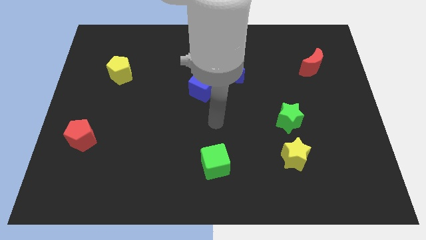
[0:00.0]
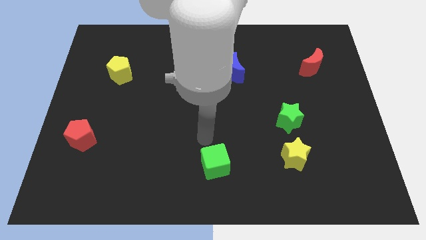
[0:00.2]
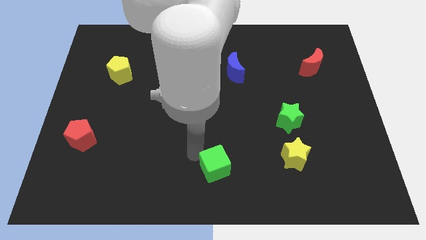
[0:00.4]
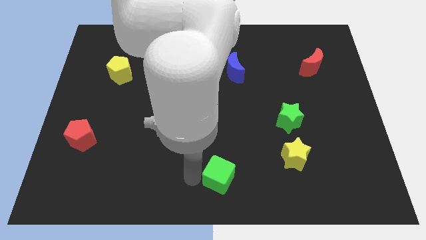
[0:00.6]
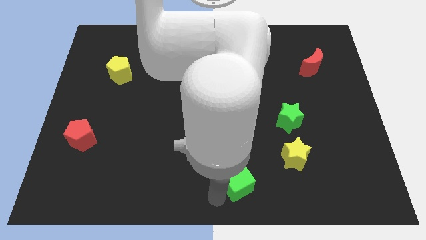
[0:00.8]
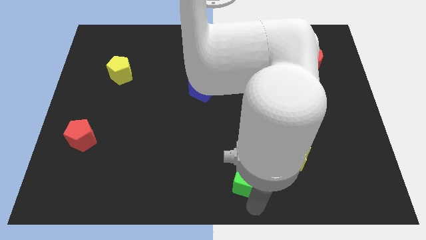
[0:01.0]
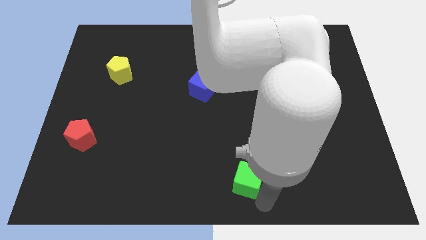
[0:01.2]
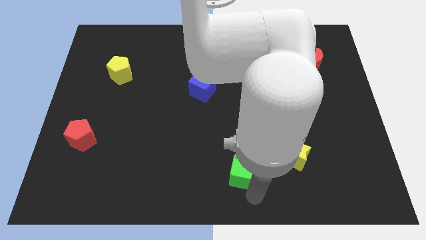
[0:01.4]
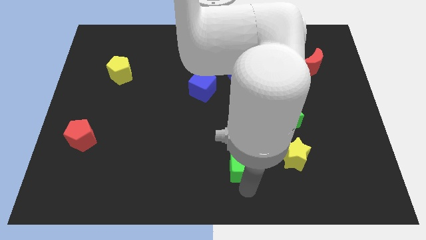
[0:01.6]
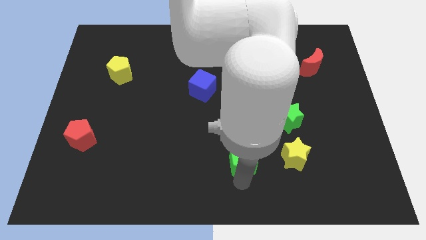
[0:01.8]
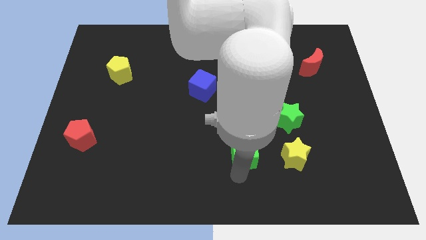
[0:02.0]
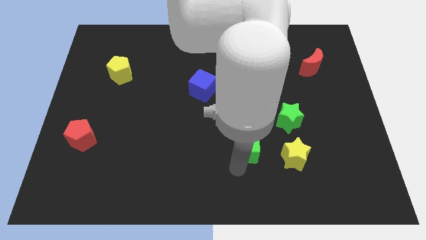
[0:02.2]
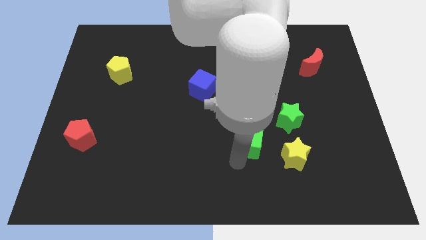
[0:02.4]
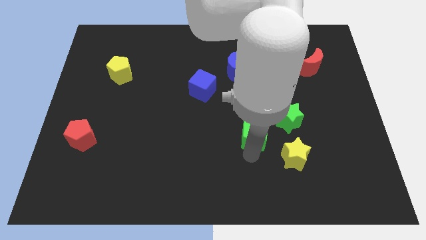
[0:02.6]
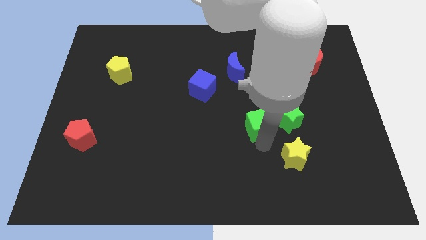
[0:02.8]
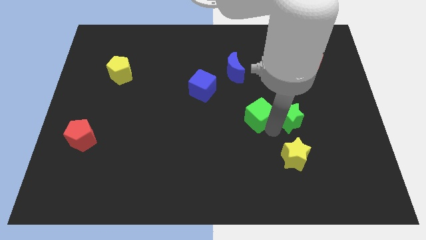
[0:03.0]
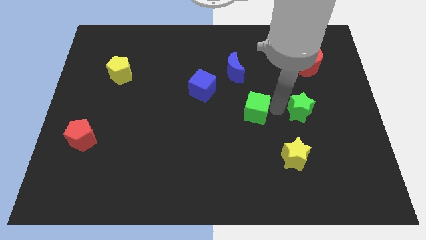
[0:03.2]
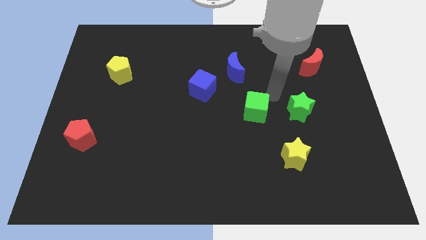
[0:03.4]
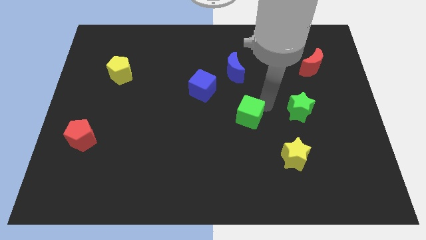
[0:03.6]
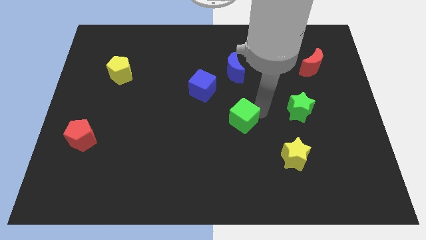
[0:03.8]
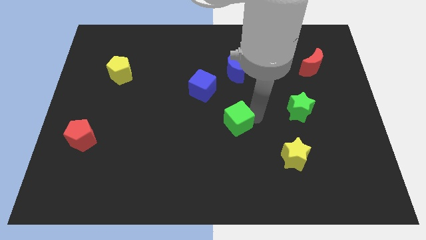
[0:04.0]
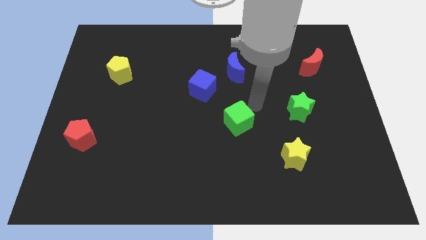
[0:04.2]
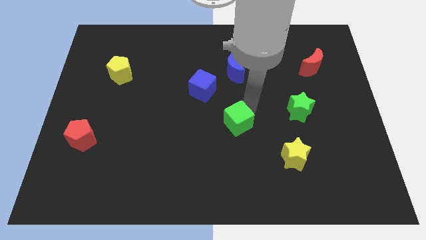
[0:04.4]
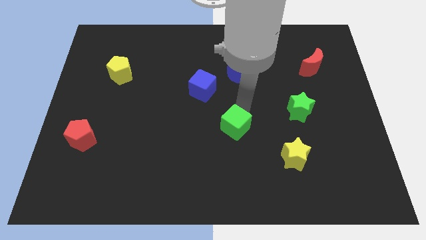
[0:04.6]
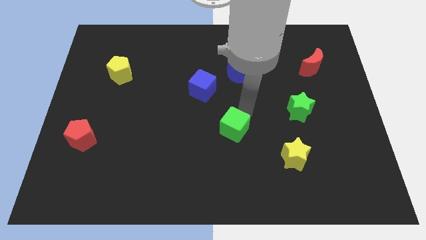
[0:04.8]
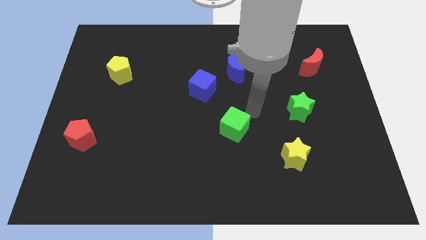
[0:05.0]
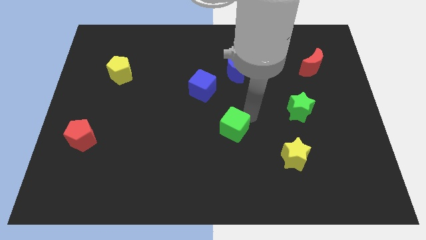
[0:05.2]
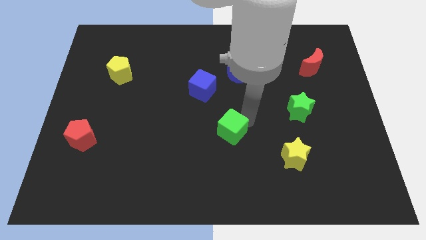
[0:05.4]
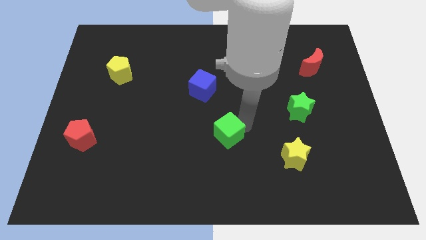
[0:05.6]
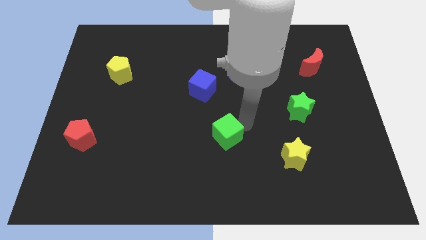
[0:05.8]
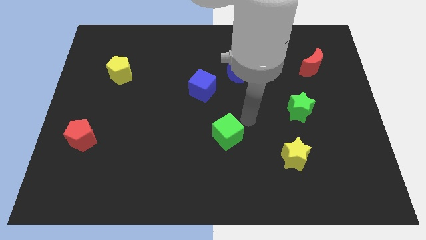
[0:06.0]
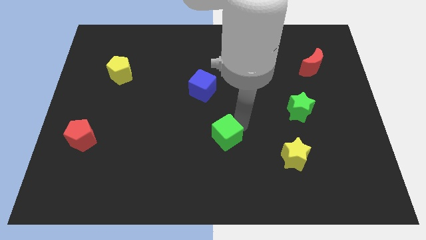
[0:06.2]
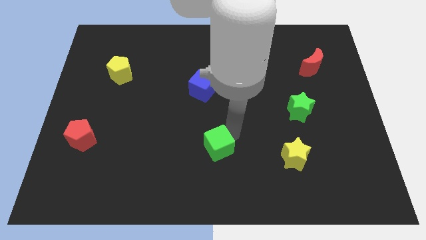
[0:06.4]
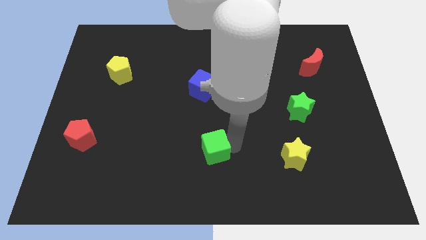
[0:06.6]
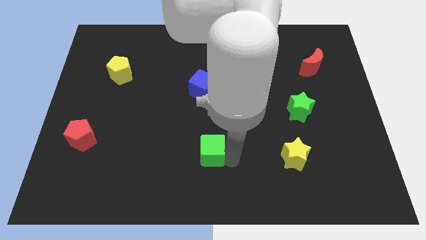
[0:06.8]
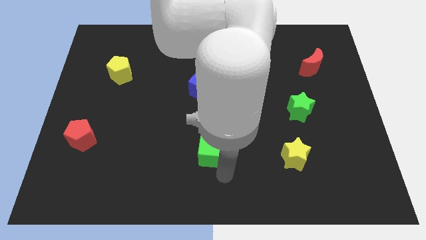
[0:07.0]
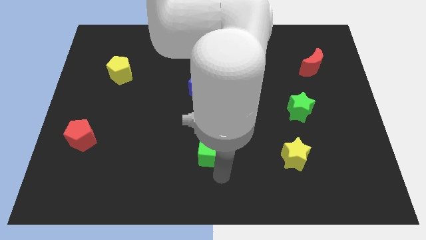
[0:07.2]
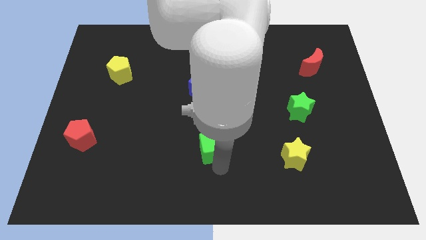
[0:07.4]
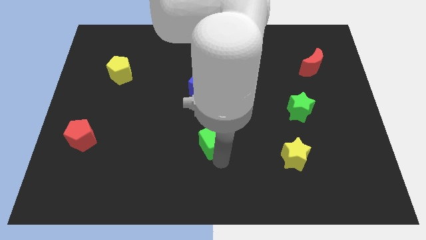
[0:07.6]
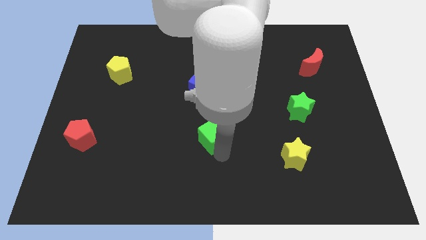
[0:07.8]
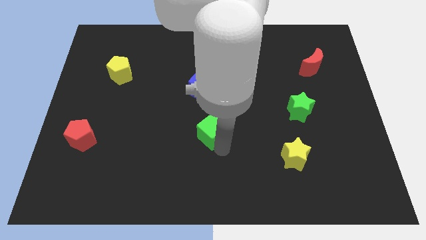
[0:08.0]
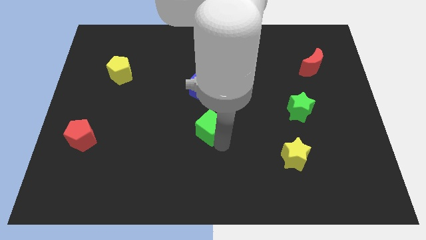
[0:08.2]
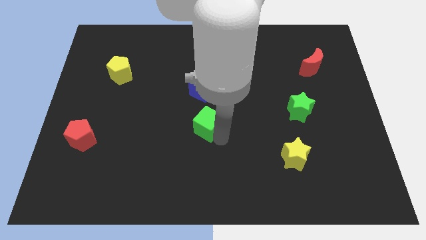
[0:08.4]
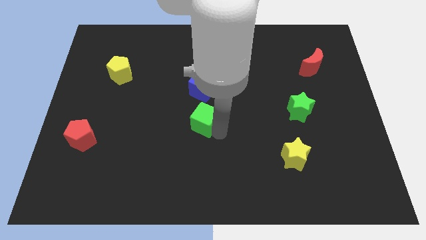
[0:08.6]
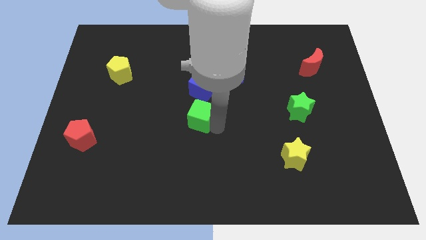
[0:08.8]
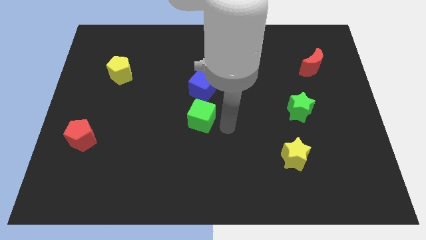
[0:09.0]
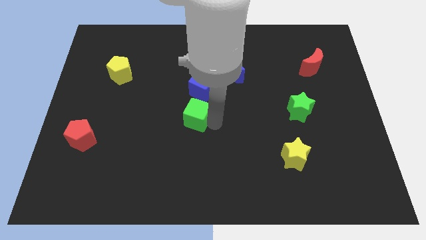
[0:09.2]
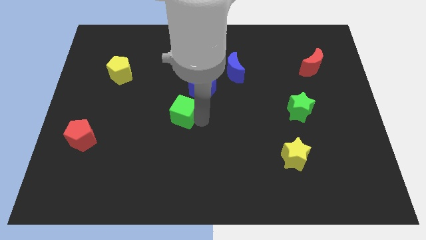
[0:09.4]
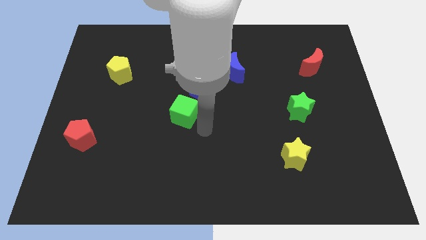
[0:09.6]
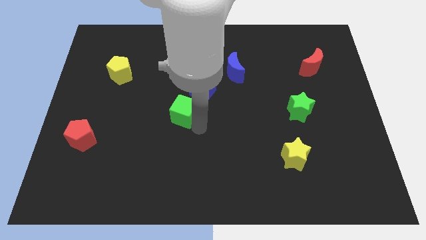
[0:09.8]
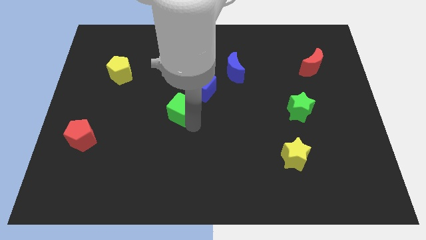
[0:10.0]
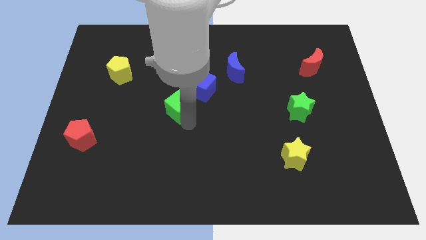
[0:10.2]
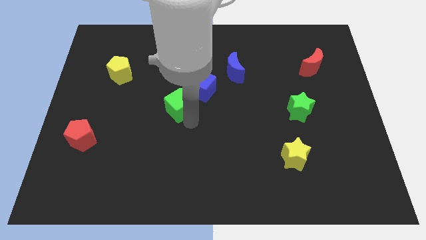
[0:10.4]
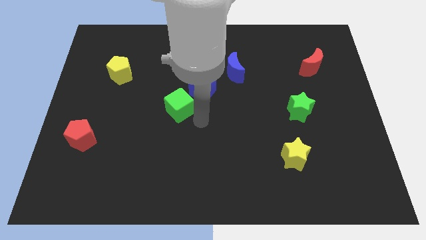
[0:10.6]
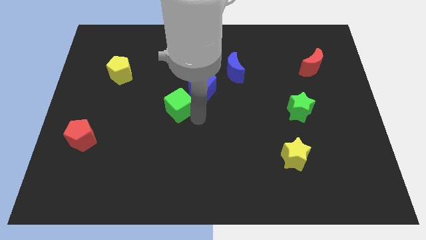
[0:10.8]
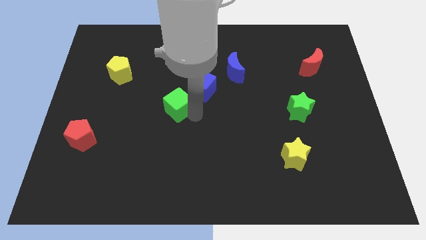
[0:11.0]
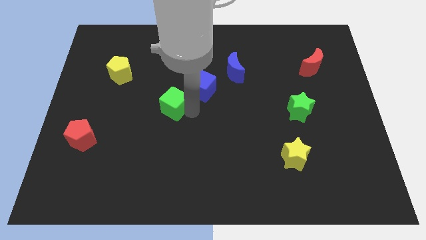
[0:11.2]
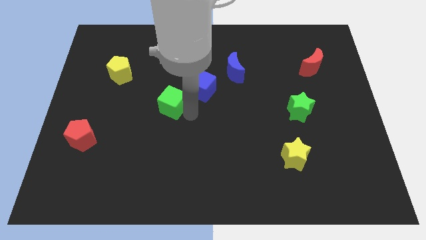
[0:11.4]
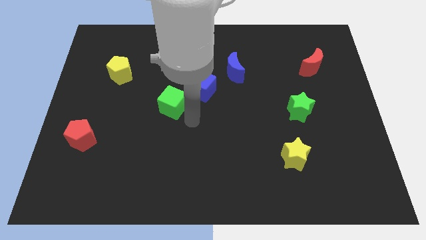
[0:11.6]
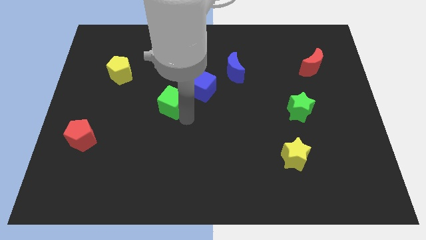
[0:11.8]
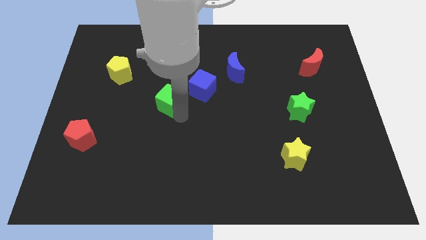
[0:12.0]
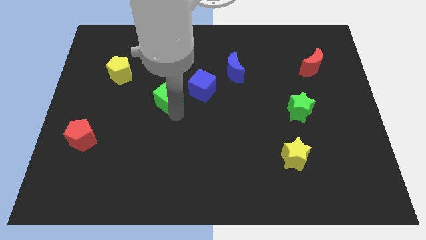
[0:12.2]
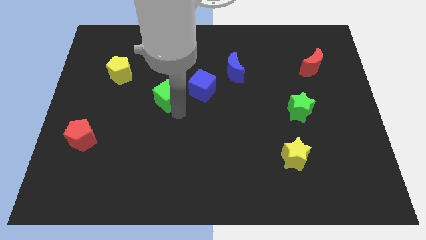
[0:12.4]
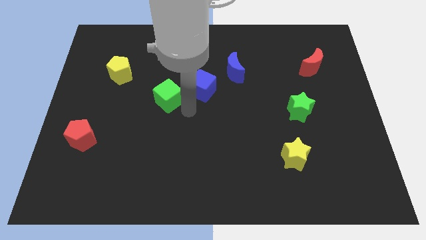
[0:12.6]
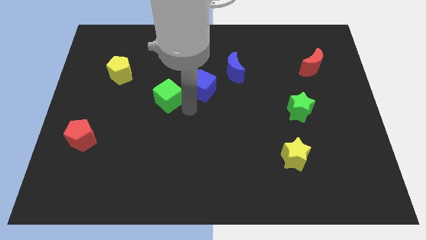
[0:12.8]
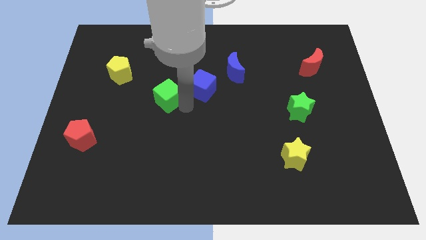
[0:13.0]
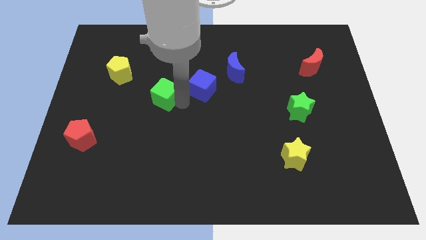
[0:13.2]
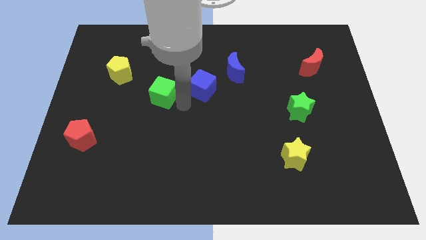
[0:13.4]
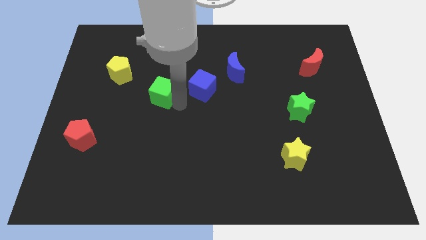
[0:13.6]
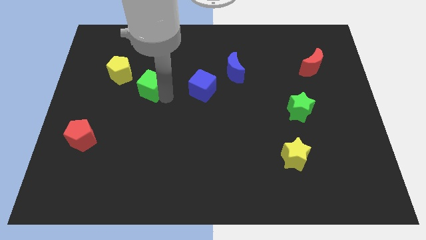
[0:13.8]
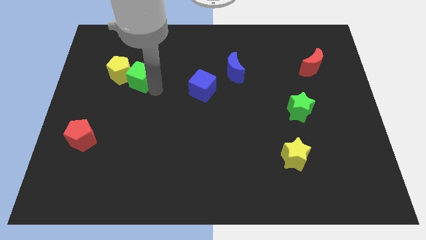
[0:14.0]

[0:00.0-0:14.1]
move the green cube towards the yellow pentagon
